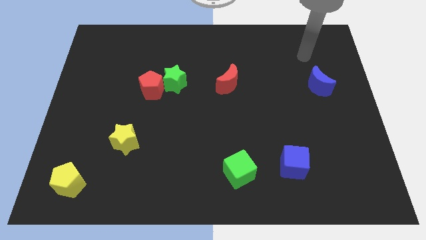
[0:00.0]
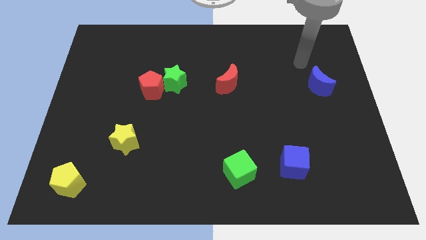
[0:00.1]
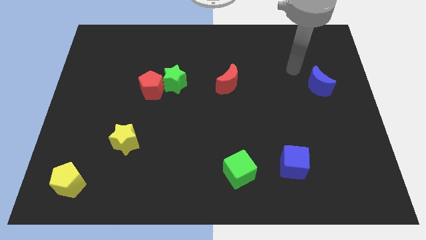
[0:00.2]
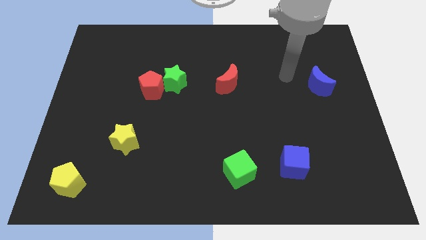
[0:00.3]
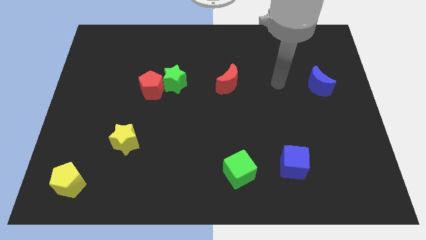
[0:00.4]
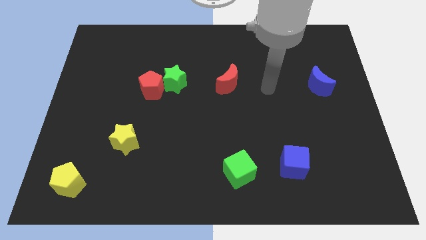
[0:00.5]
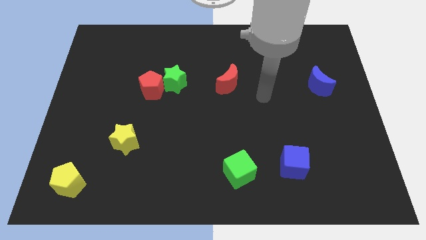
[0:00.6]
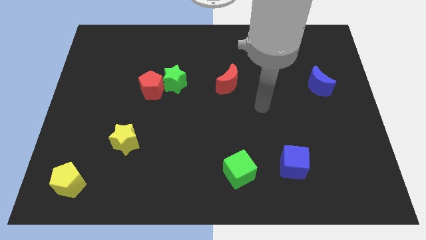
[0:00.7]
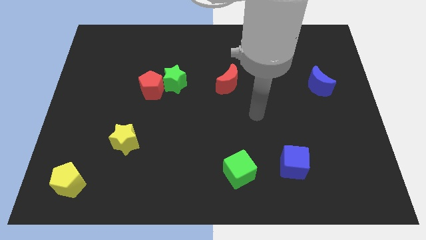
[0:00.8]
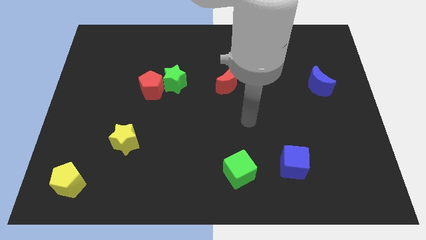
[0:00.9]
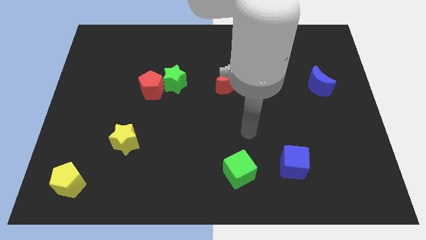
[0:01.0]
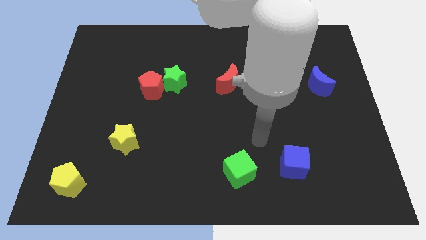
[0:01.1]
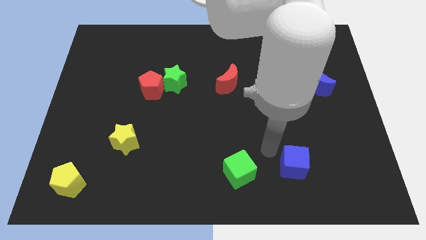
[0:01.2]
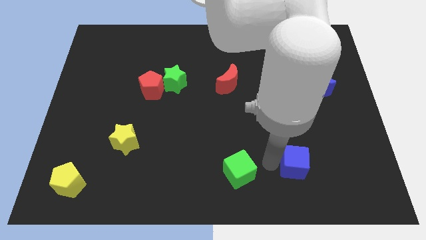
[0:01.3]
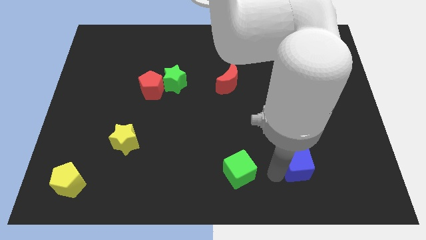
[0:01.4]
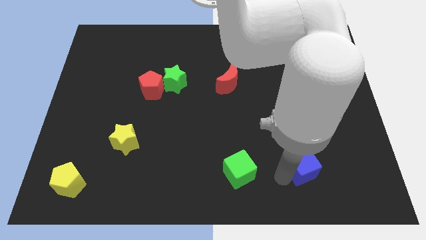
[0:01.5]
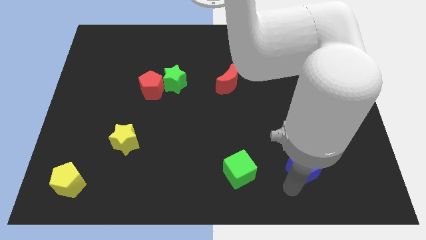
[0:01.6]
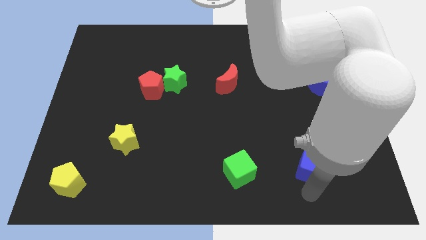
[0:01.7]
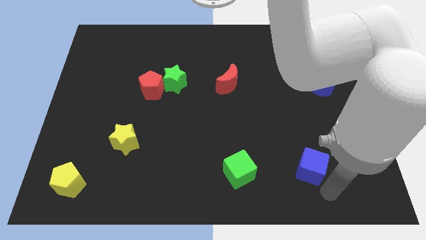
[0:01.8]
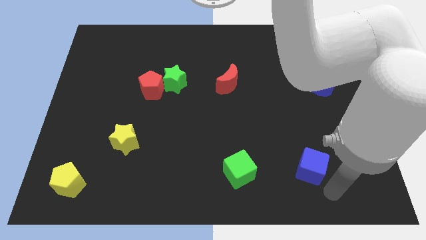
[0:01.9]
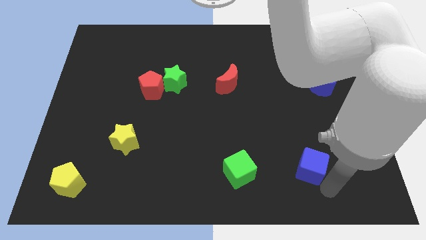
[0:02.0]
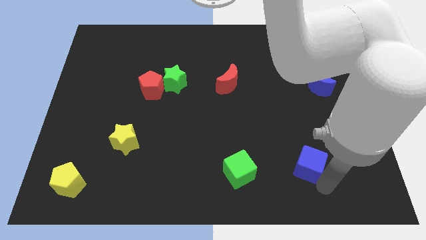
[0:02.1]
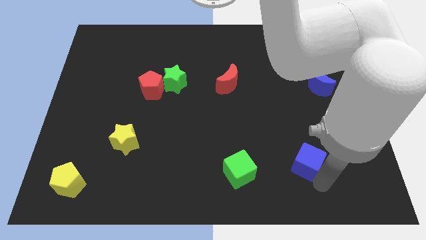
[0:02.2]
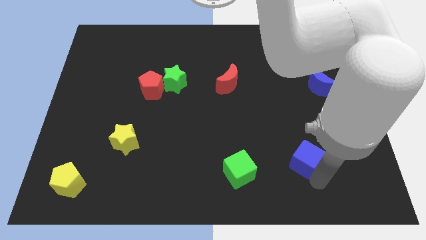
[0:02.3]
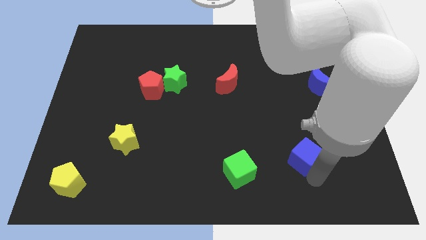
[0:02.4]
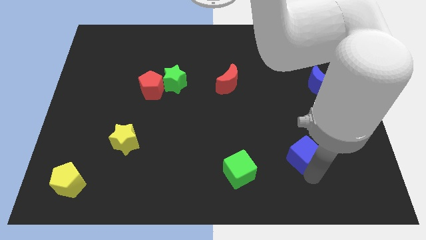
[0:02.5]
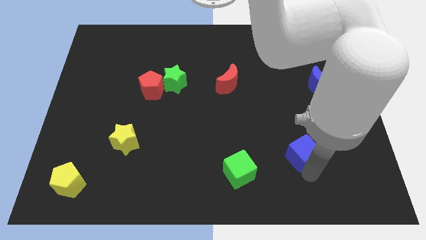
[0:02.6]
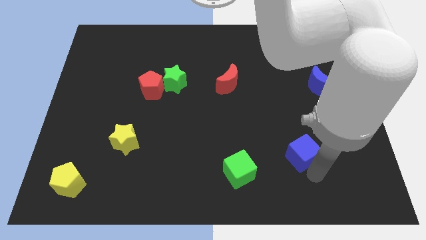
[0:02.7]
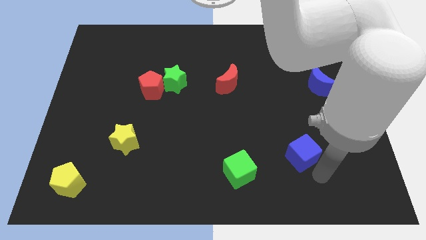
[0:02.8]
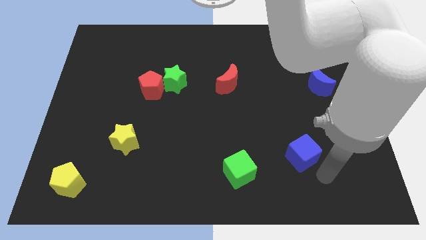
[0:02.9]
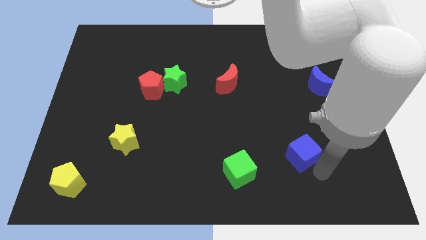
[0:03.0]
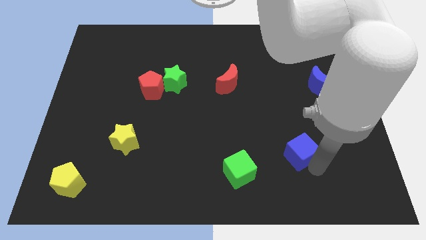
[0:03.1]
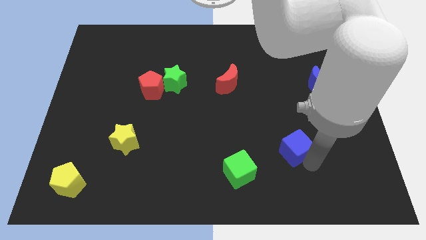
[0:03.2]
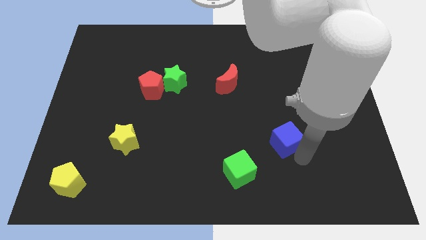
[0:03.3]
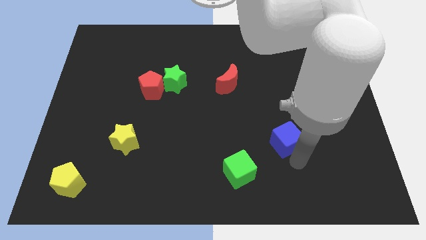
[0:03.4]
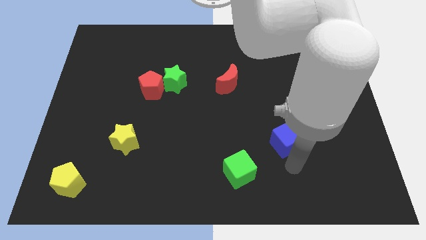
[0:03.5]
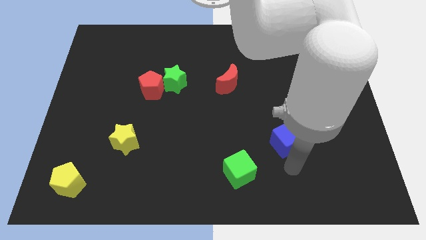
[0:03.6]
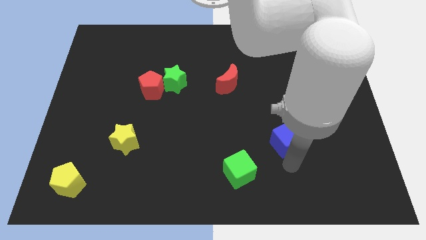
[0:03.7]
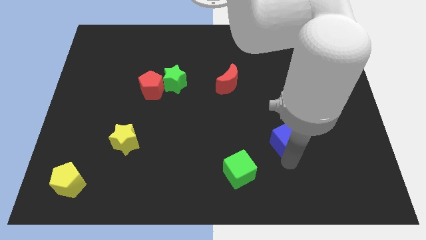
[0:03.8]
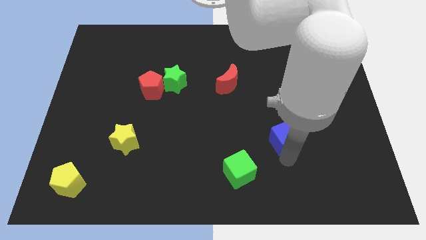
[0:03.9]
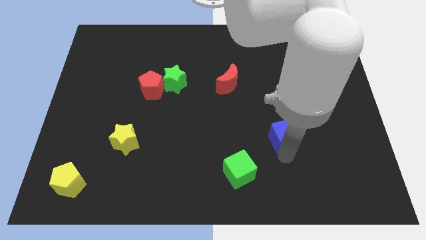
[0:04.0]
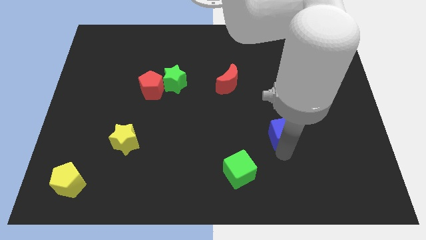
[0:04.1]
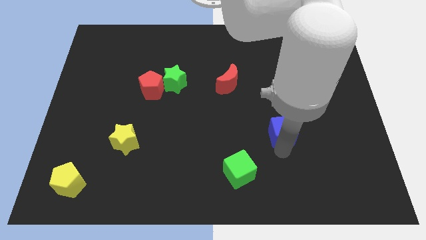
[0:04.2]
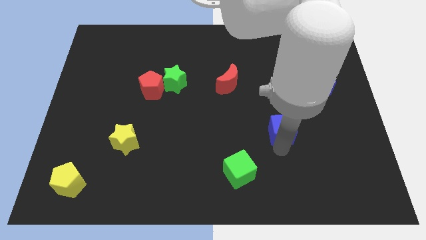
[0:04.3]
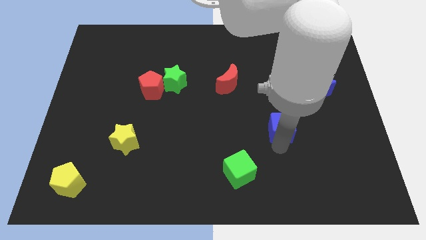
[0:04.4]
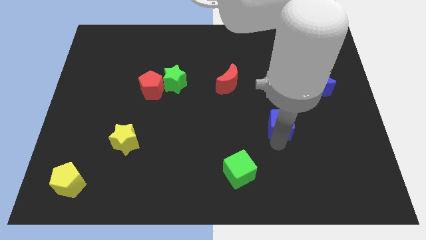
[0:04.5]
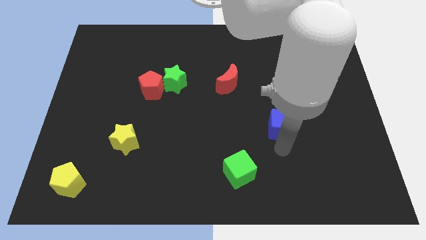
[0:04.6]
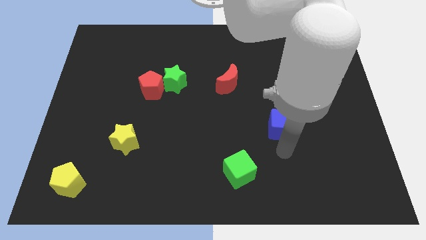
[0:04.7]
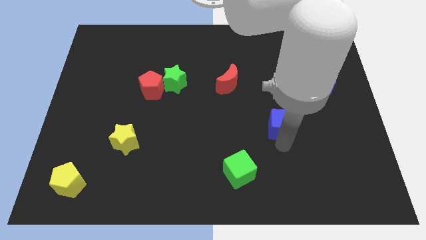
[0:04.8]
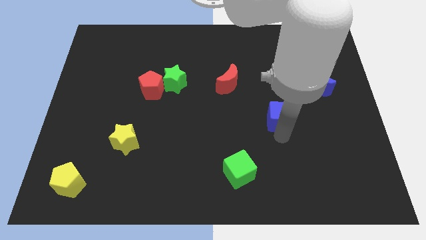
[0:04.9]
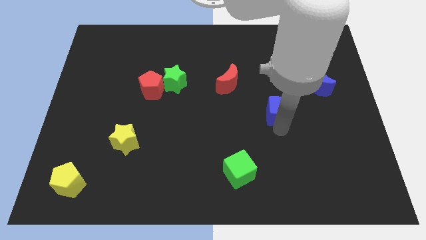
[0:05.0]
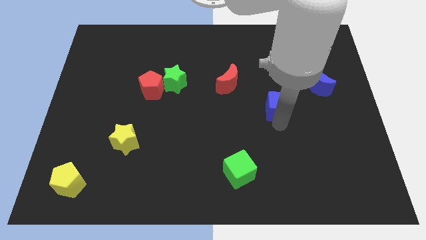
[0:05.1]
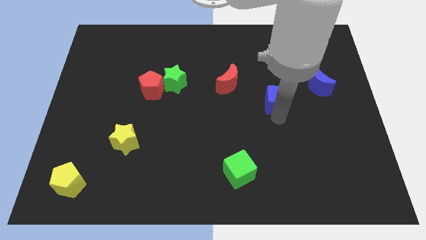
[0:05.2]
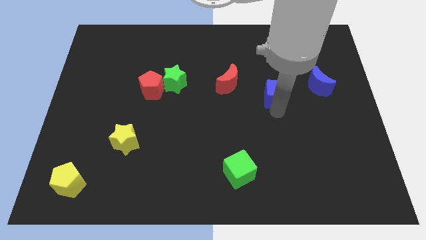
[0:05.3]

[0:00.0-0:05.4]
move the blue cube to the left of the blue moon

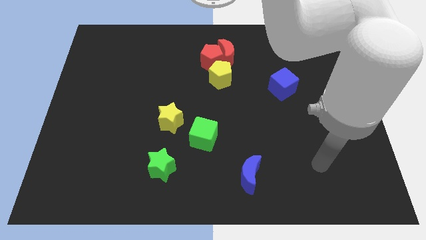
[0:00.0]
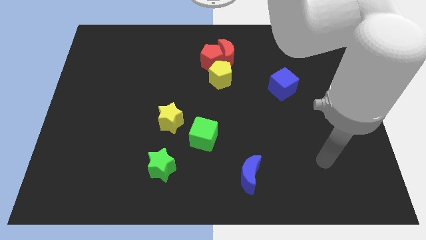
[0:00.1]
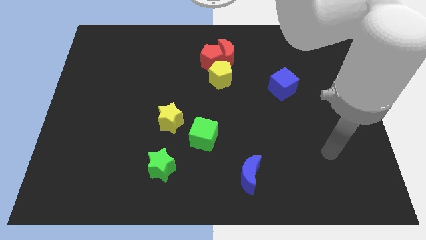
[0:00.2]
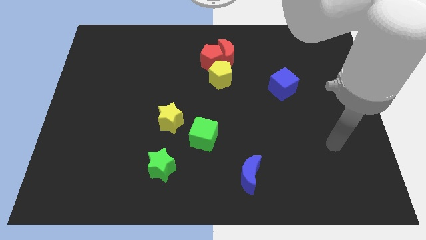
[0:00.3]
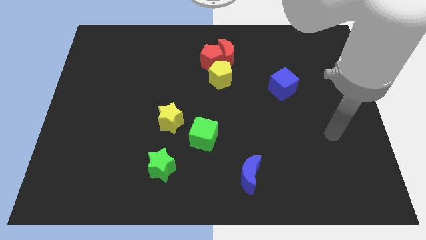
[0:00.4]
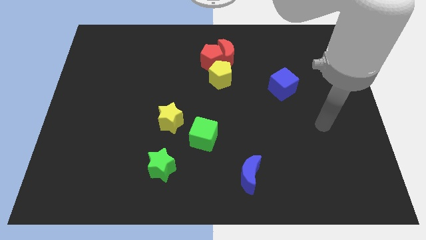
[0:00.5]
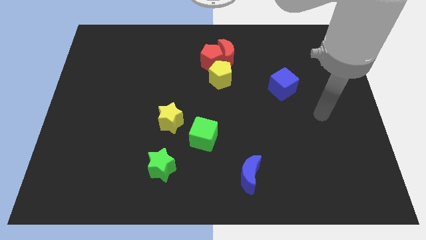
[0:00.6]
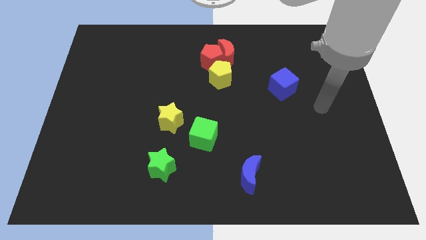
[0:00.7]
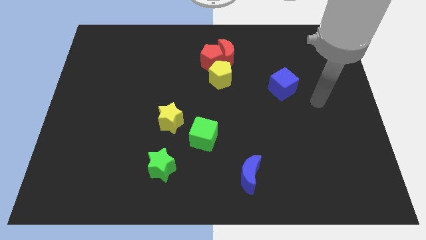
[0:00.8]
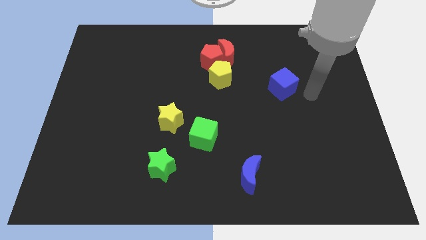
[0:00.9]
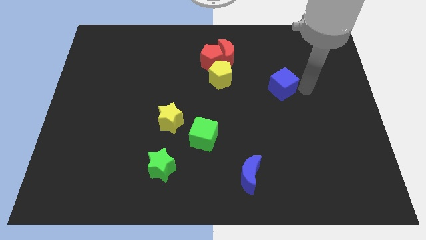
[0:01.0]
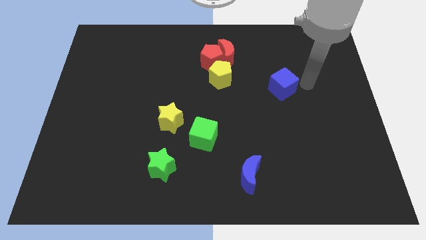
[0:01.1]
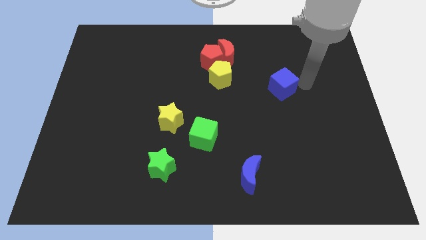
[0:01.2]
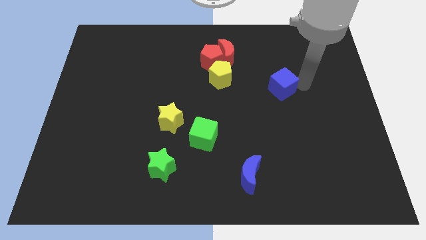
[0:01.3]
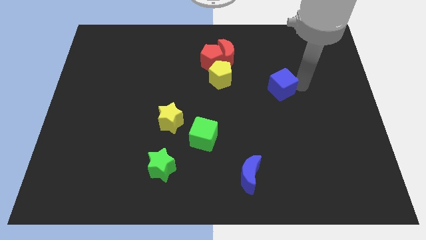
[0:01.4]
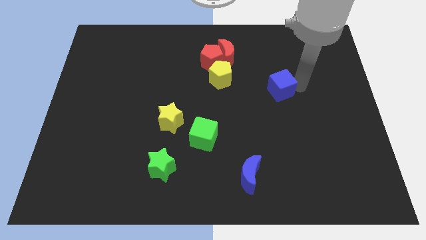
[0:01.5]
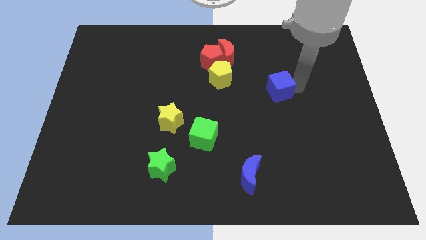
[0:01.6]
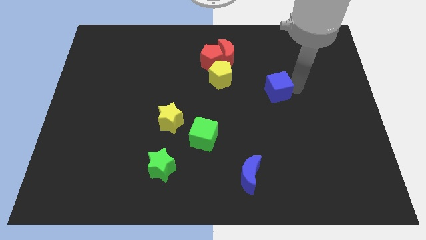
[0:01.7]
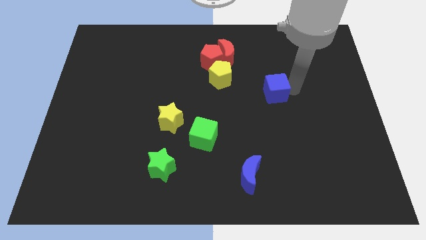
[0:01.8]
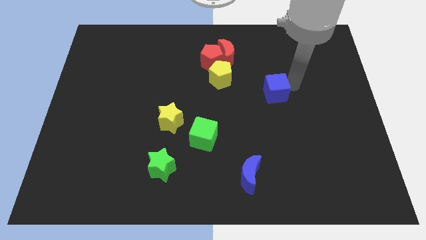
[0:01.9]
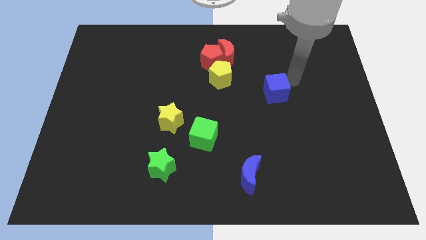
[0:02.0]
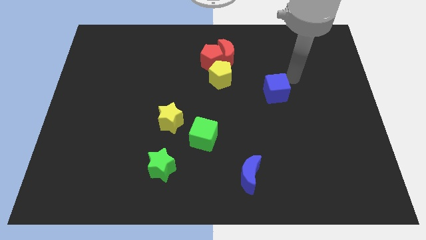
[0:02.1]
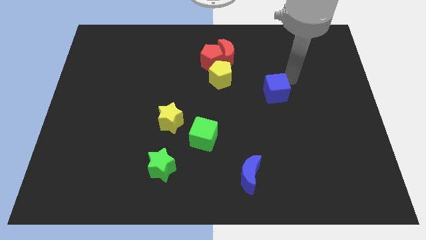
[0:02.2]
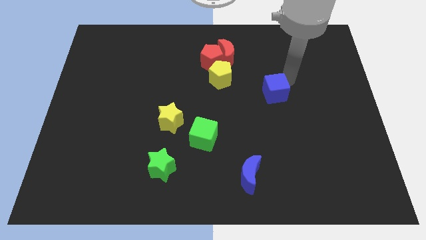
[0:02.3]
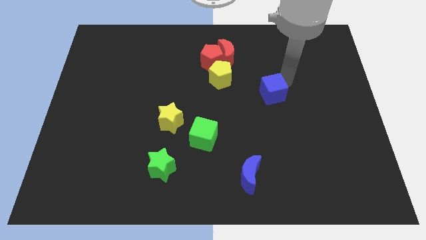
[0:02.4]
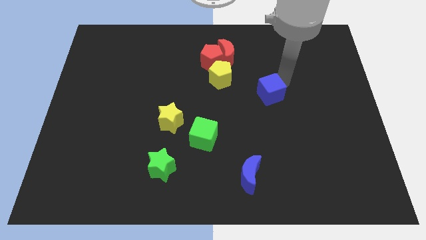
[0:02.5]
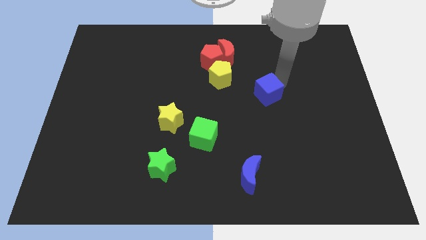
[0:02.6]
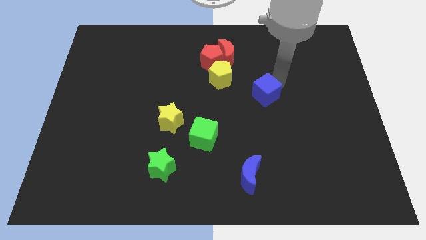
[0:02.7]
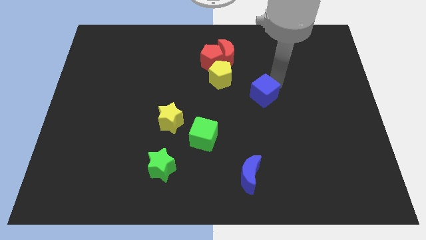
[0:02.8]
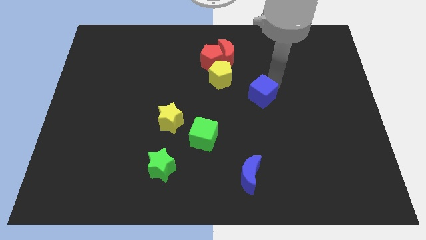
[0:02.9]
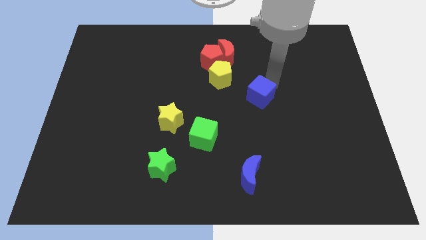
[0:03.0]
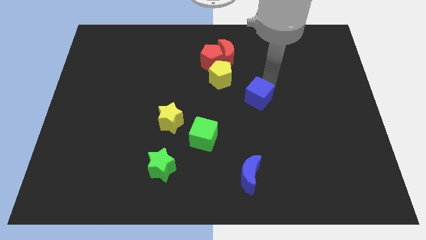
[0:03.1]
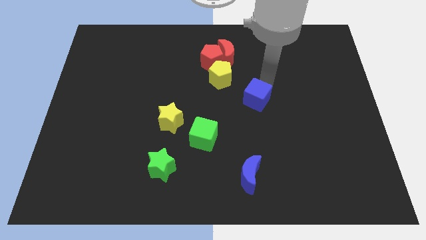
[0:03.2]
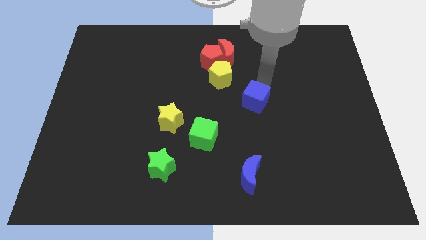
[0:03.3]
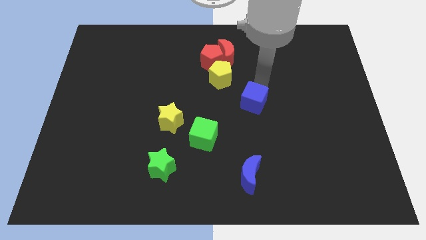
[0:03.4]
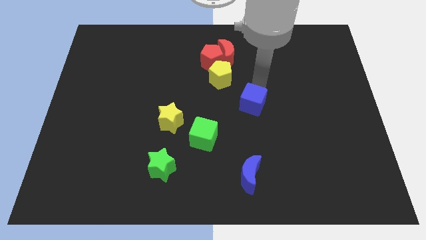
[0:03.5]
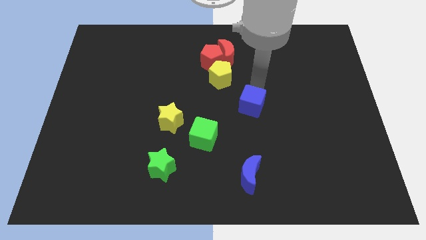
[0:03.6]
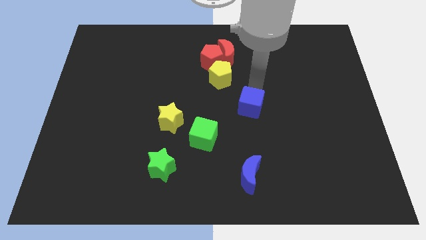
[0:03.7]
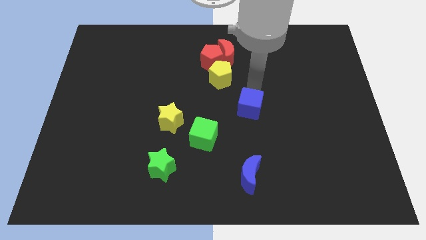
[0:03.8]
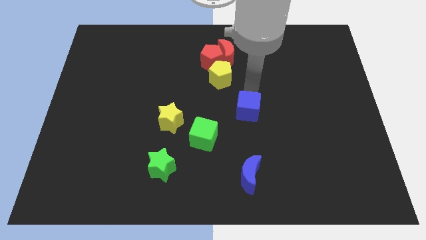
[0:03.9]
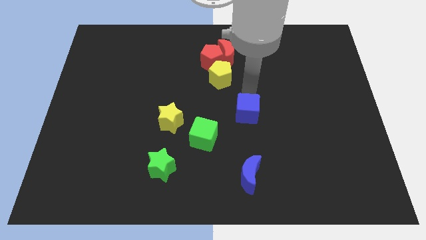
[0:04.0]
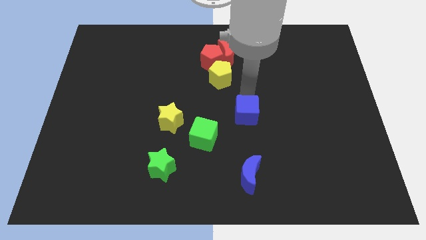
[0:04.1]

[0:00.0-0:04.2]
slide the blue cube to the top of the blue moon
